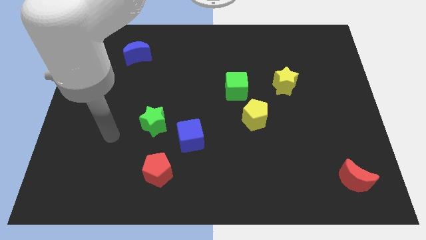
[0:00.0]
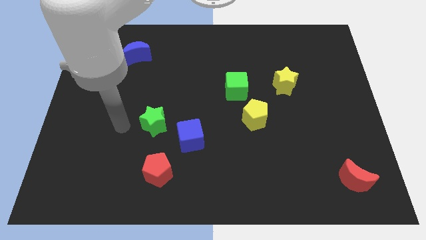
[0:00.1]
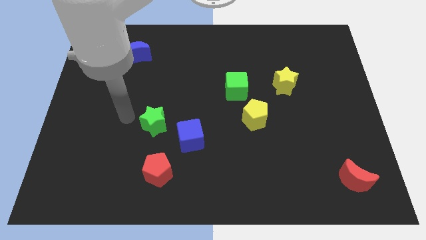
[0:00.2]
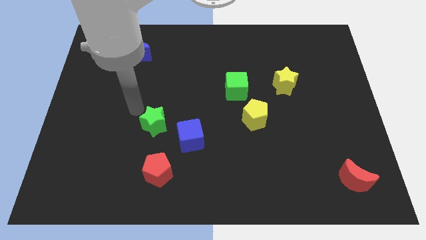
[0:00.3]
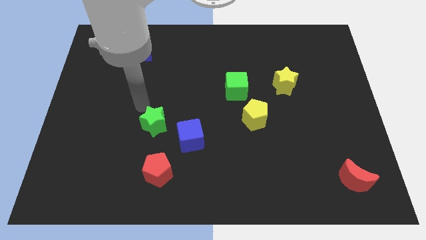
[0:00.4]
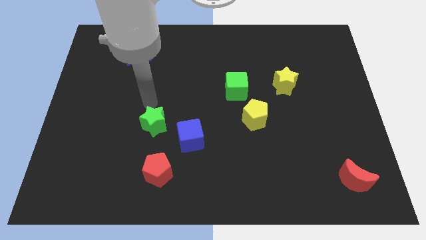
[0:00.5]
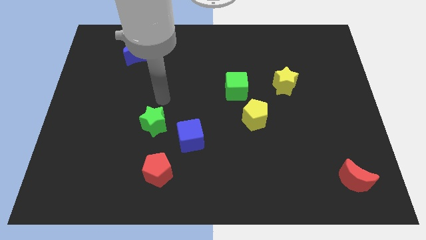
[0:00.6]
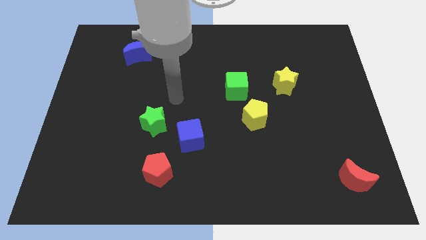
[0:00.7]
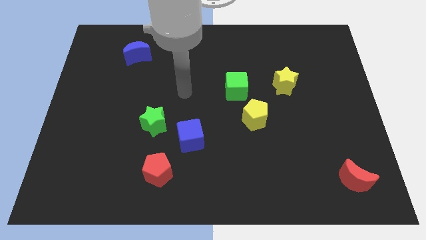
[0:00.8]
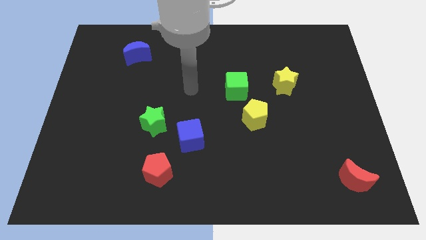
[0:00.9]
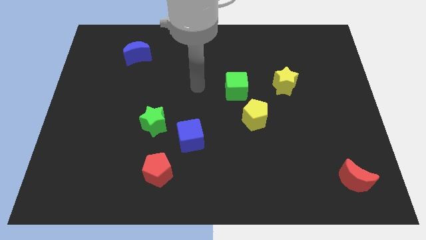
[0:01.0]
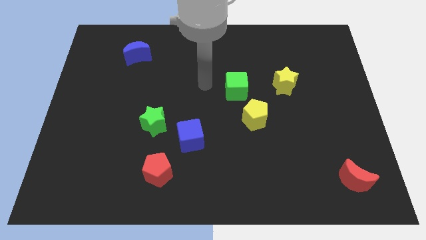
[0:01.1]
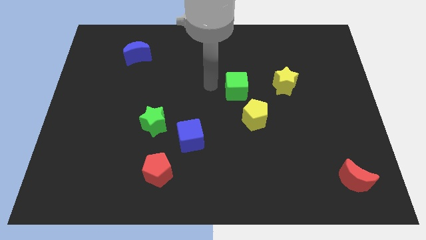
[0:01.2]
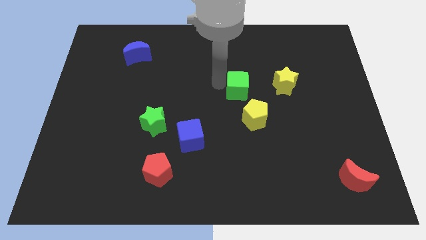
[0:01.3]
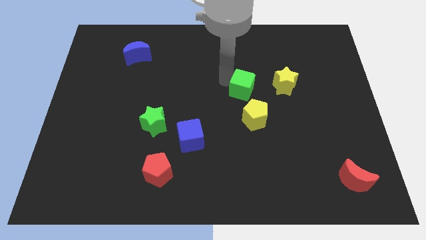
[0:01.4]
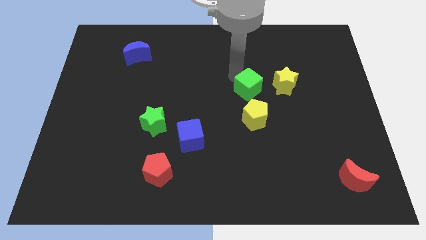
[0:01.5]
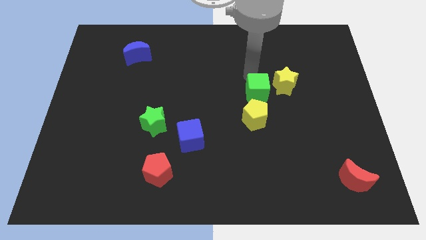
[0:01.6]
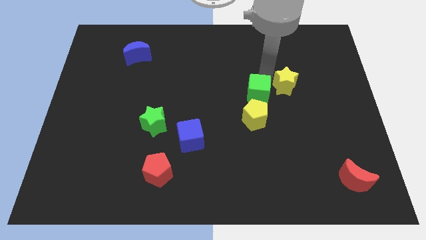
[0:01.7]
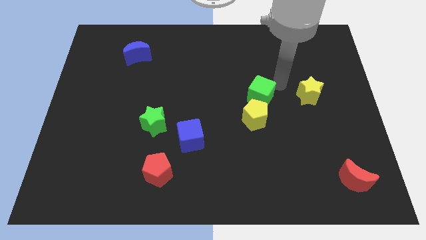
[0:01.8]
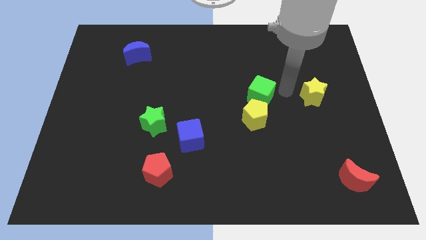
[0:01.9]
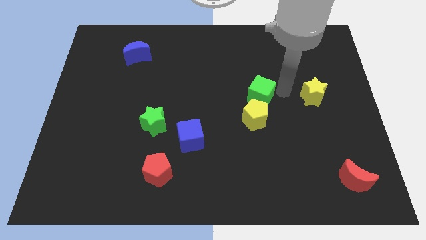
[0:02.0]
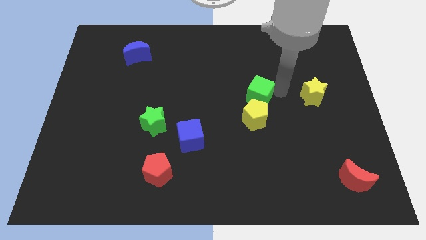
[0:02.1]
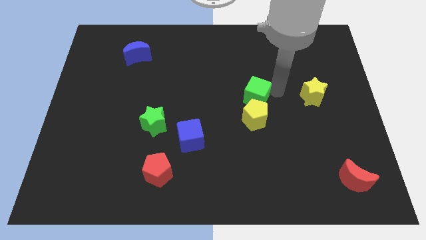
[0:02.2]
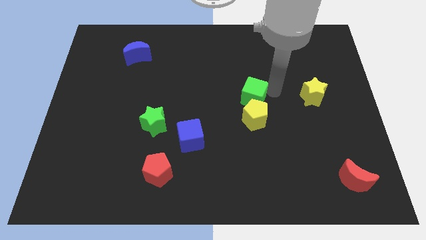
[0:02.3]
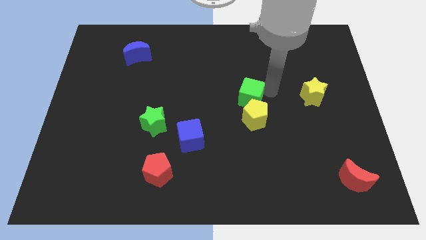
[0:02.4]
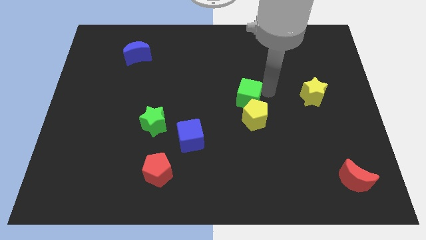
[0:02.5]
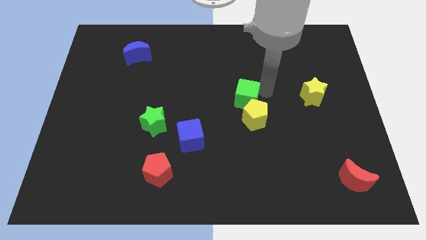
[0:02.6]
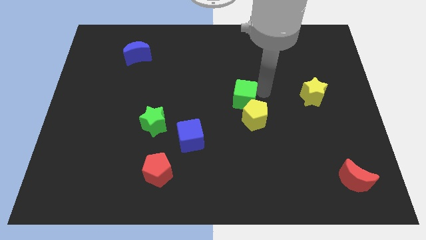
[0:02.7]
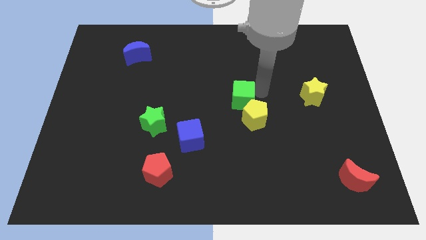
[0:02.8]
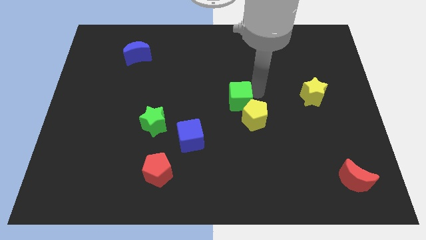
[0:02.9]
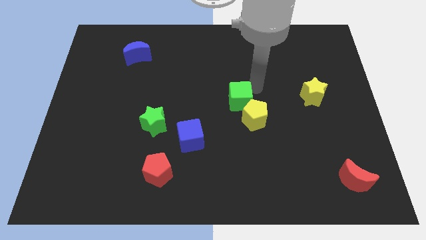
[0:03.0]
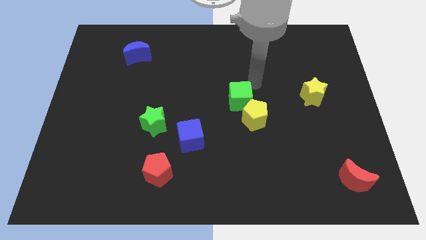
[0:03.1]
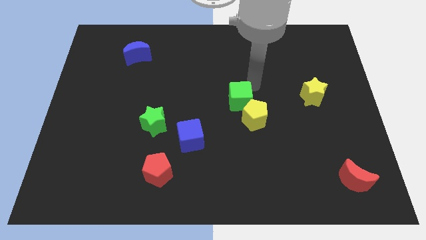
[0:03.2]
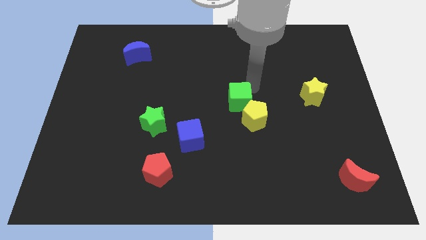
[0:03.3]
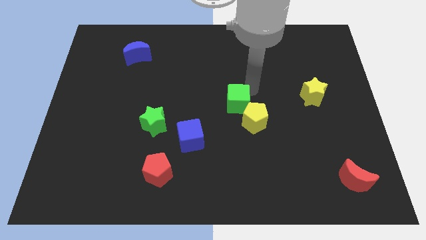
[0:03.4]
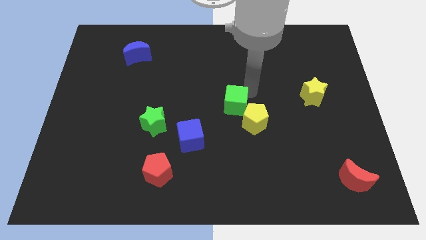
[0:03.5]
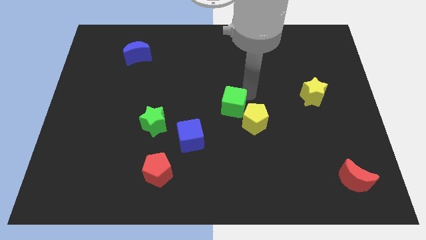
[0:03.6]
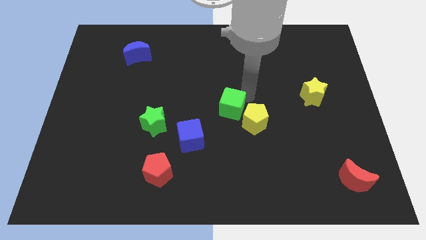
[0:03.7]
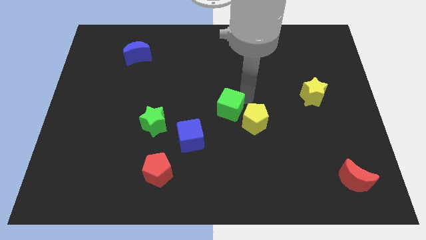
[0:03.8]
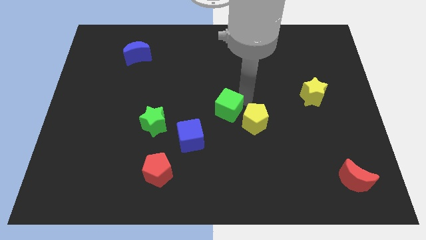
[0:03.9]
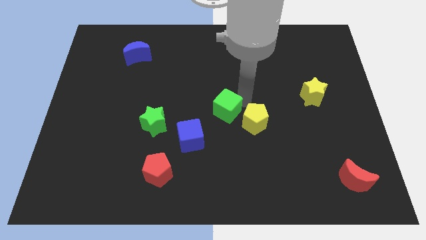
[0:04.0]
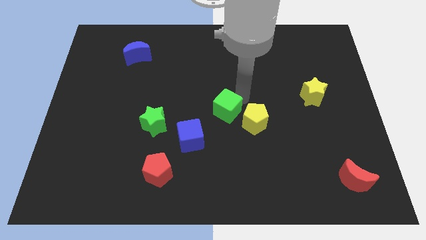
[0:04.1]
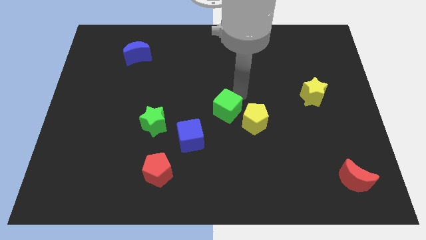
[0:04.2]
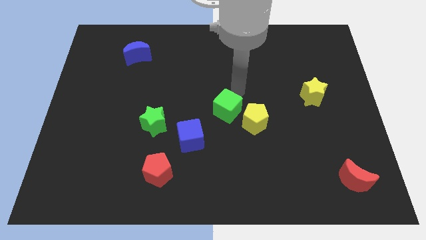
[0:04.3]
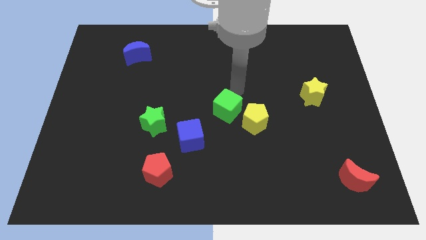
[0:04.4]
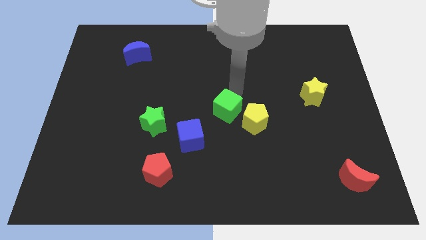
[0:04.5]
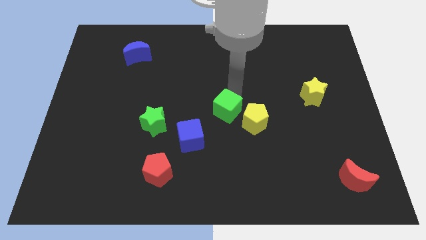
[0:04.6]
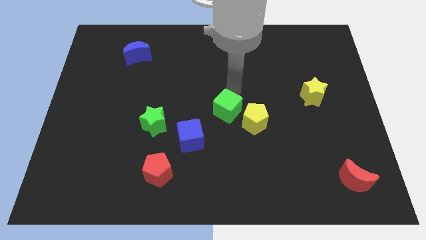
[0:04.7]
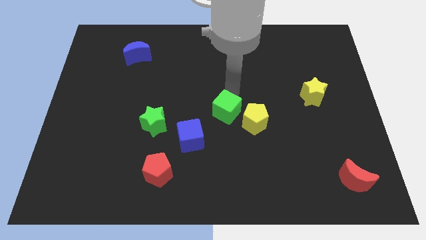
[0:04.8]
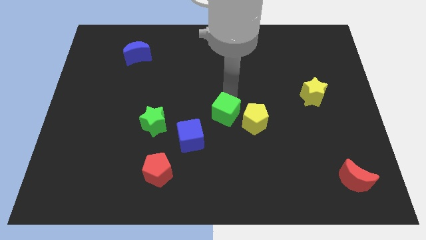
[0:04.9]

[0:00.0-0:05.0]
slide the green cube down somewhat

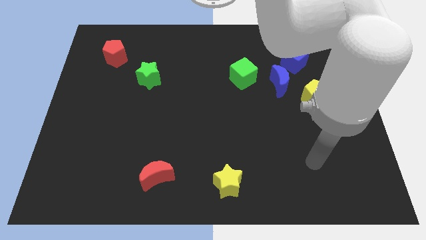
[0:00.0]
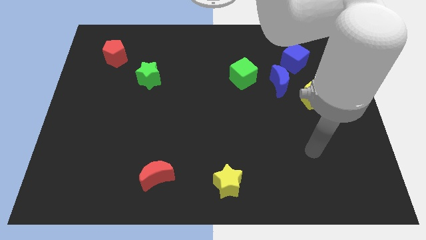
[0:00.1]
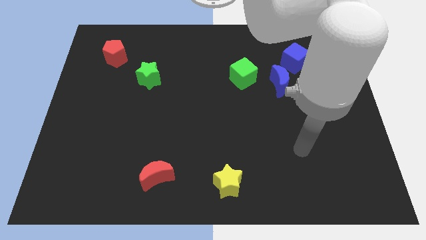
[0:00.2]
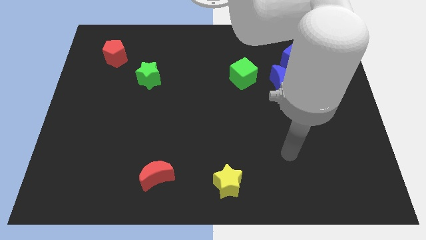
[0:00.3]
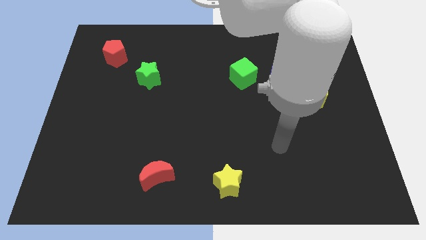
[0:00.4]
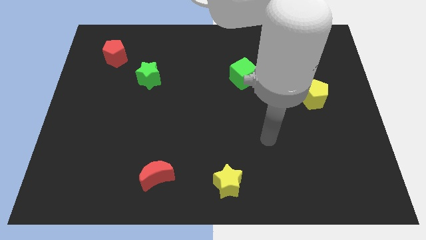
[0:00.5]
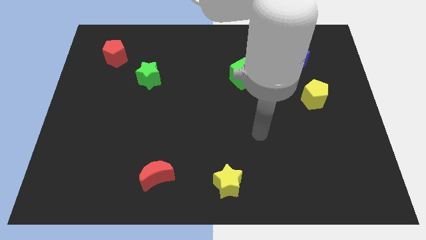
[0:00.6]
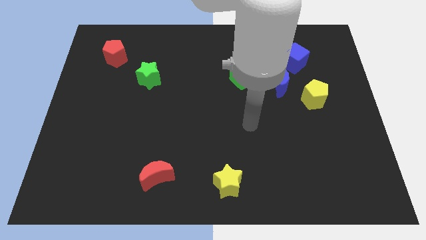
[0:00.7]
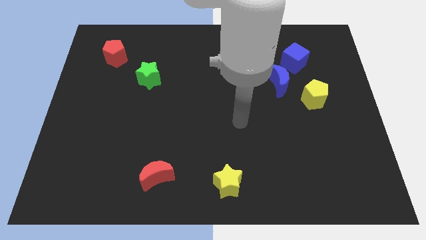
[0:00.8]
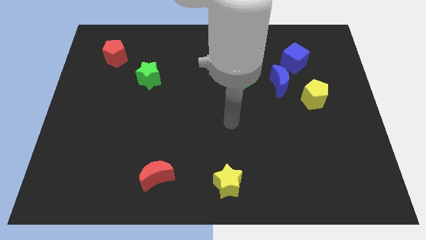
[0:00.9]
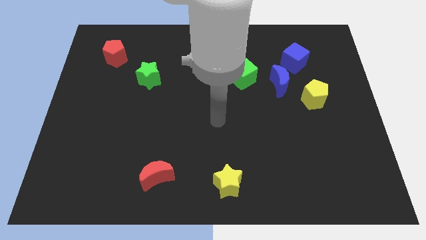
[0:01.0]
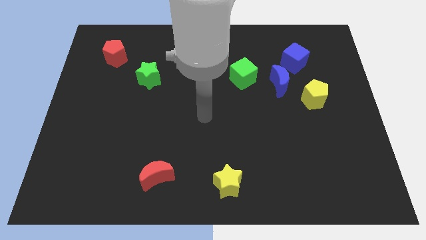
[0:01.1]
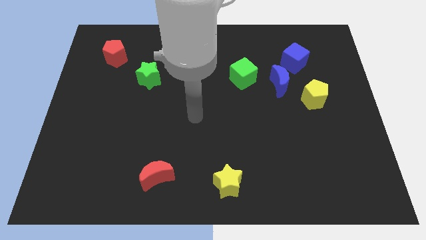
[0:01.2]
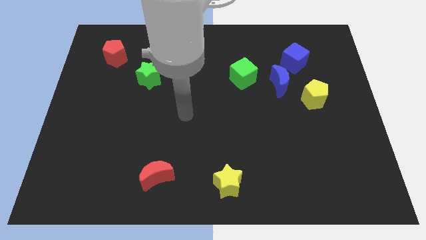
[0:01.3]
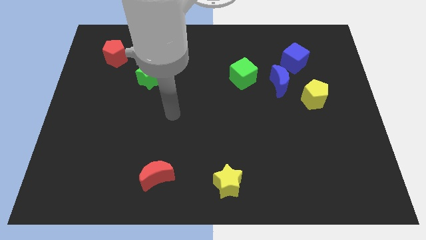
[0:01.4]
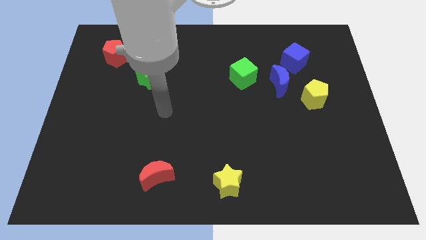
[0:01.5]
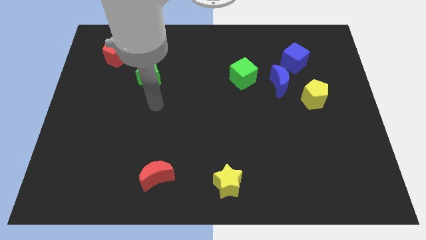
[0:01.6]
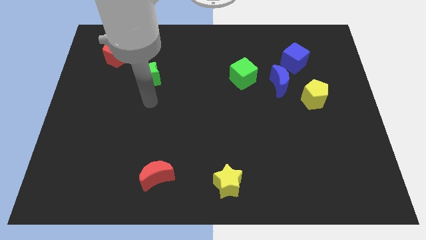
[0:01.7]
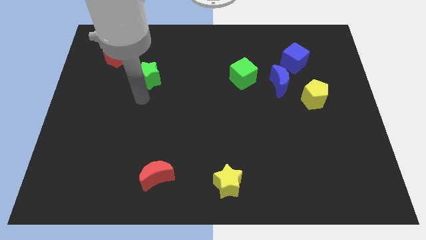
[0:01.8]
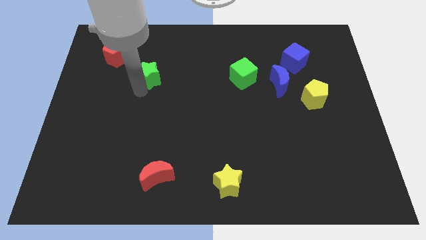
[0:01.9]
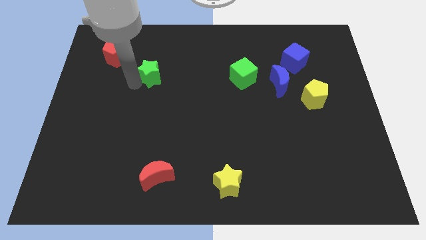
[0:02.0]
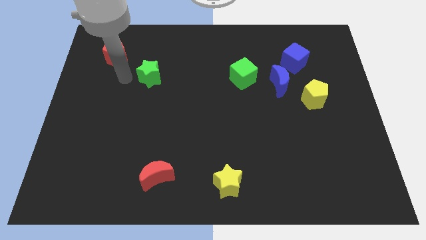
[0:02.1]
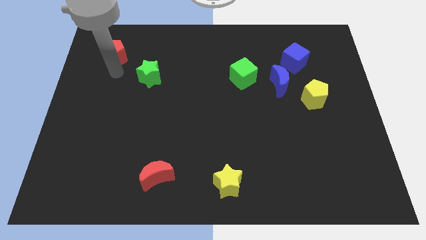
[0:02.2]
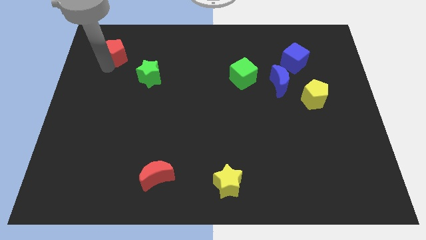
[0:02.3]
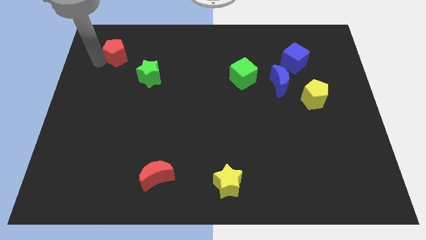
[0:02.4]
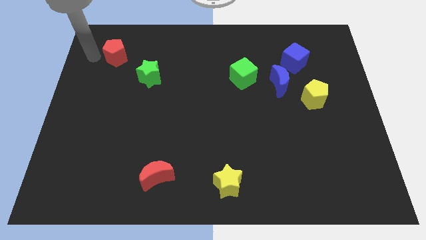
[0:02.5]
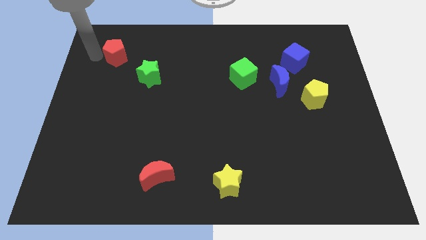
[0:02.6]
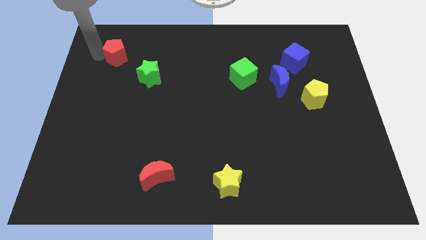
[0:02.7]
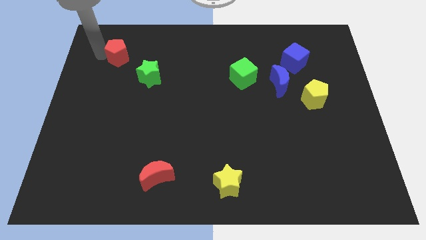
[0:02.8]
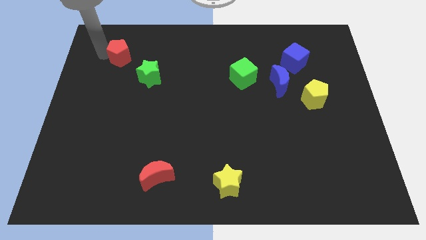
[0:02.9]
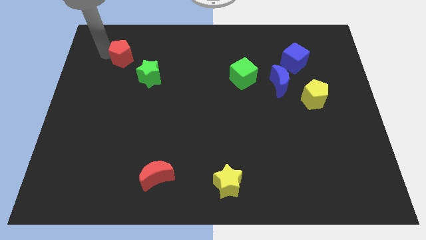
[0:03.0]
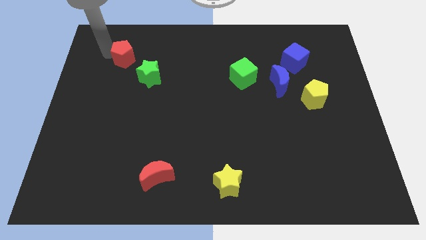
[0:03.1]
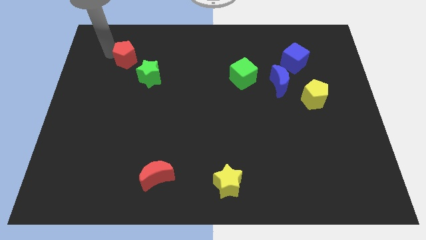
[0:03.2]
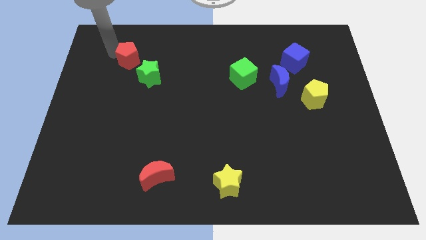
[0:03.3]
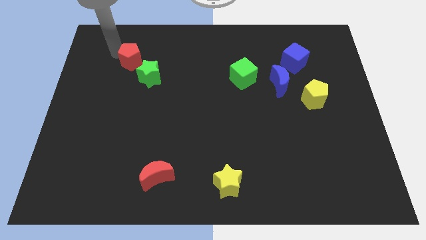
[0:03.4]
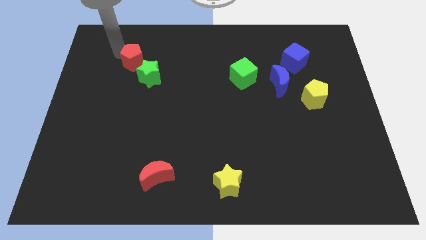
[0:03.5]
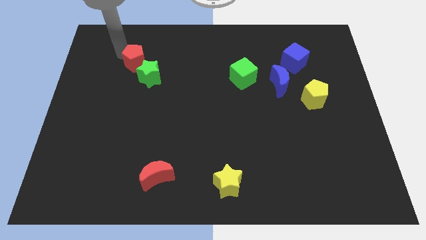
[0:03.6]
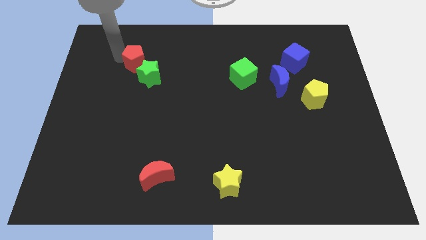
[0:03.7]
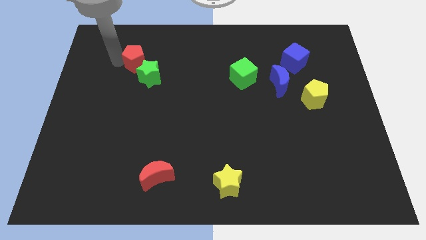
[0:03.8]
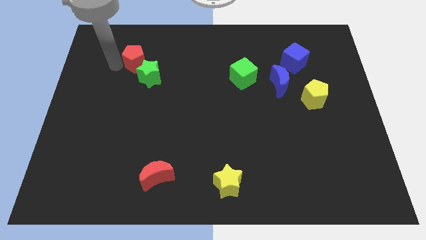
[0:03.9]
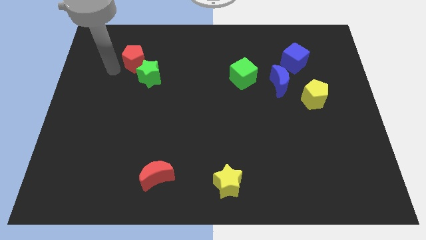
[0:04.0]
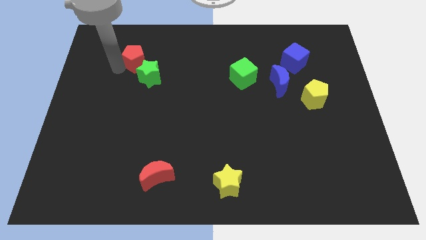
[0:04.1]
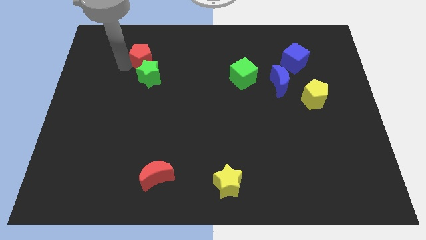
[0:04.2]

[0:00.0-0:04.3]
move the red pentagon slightly to the right
